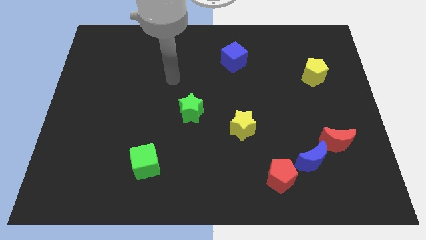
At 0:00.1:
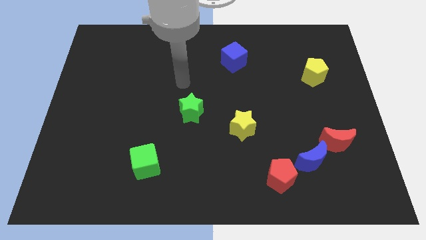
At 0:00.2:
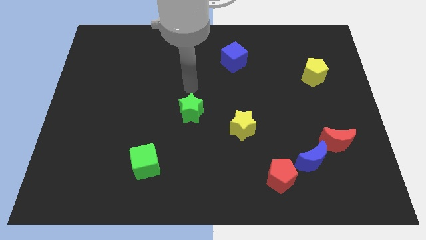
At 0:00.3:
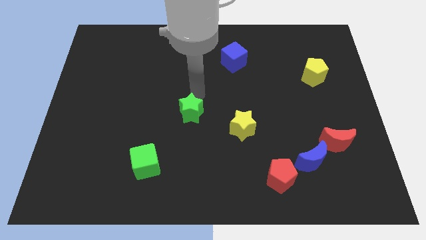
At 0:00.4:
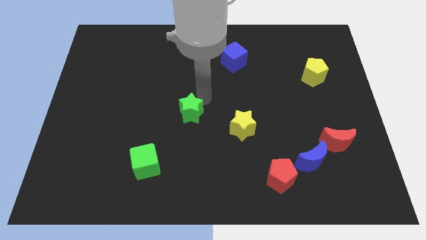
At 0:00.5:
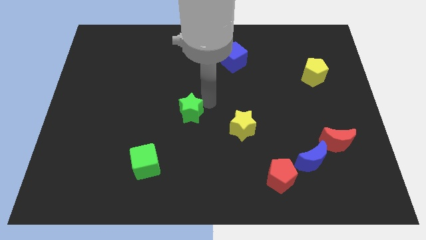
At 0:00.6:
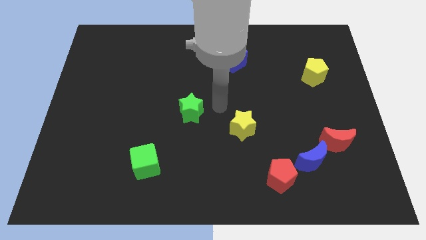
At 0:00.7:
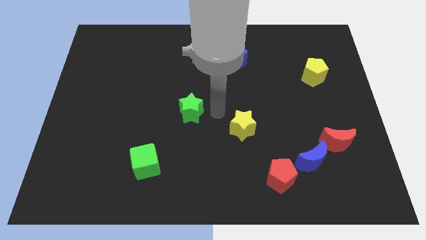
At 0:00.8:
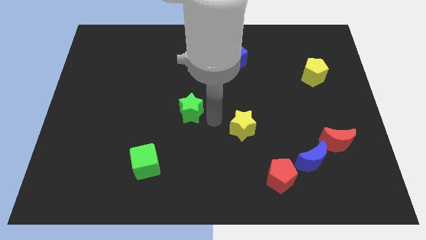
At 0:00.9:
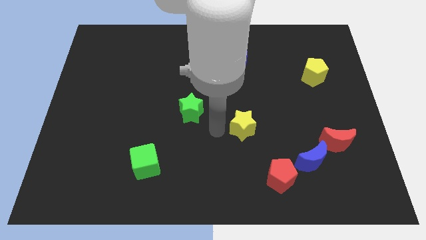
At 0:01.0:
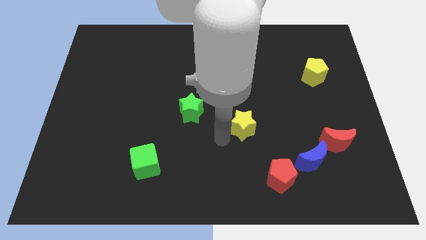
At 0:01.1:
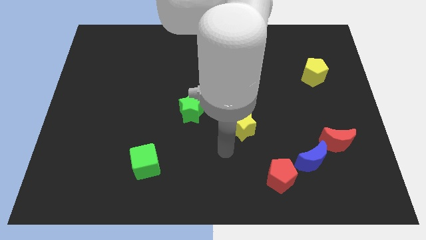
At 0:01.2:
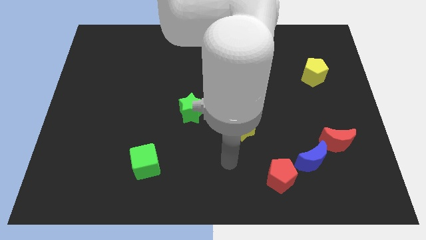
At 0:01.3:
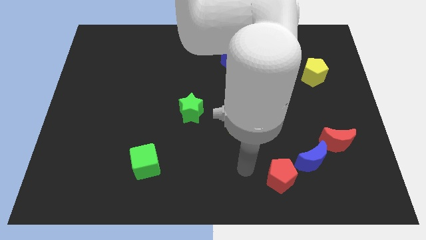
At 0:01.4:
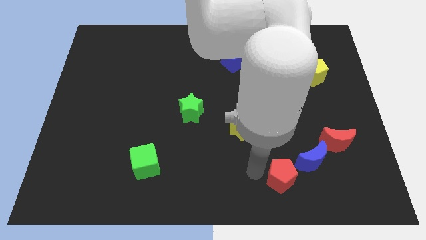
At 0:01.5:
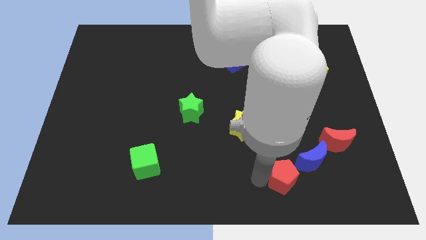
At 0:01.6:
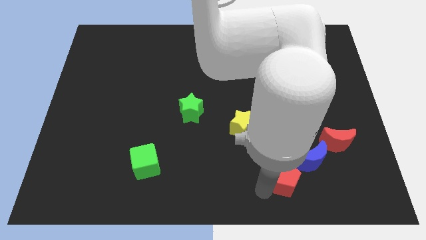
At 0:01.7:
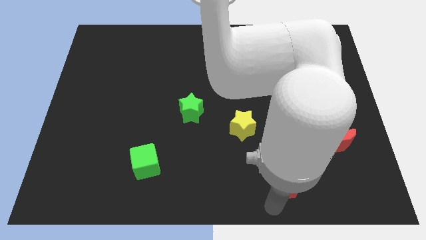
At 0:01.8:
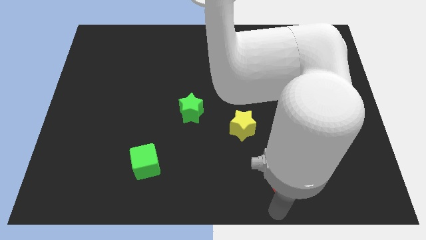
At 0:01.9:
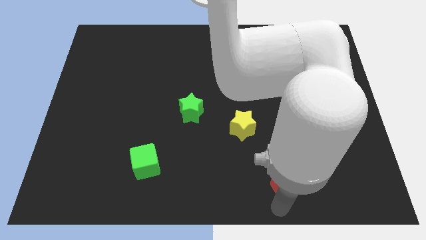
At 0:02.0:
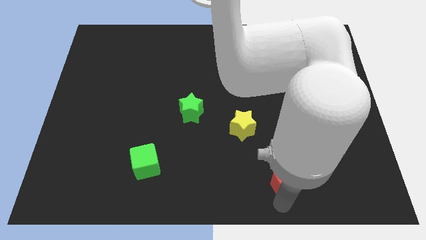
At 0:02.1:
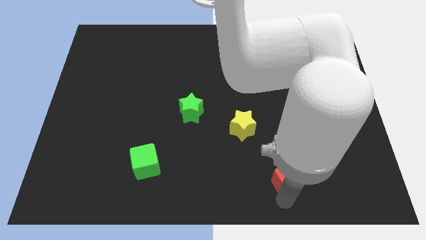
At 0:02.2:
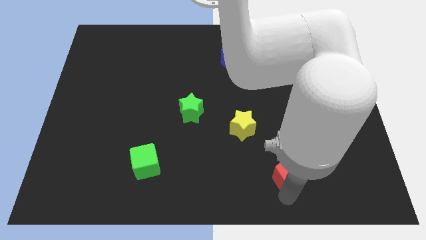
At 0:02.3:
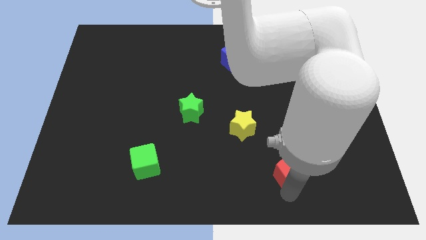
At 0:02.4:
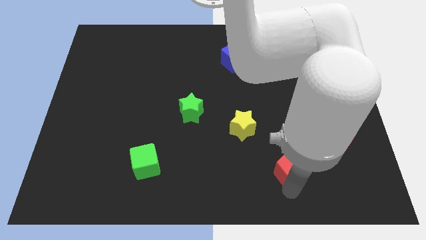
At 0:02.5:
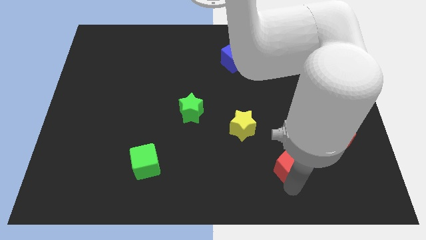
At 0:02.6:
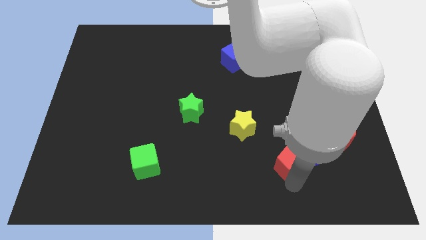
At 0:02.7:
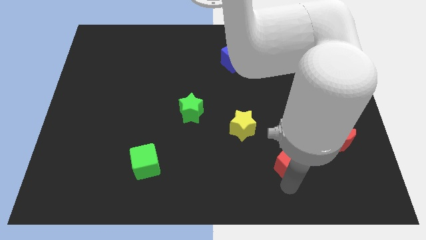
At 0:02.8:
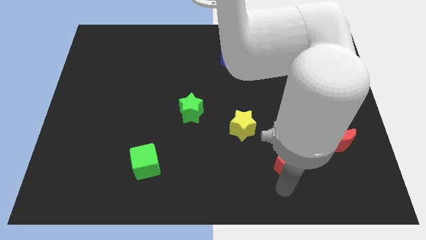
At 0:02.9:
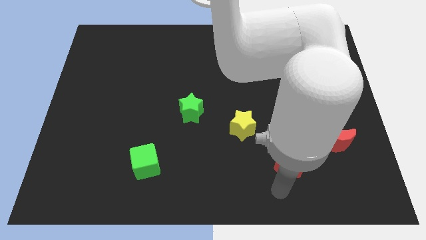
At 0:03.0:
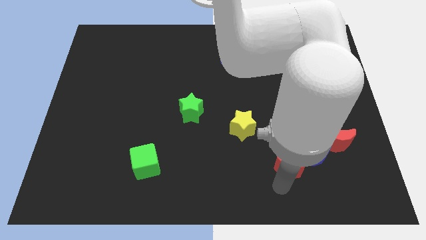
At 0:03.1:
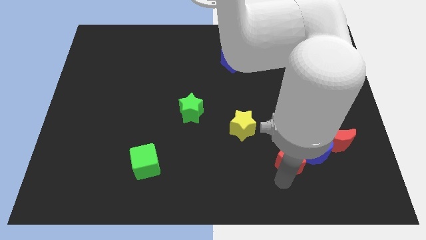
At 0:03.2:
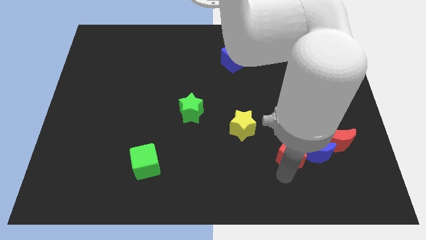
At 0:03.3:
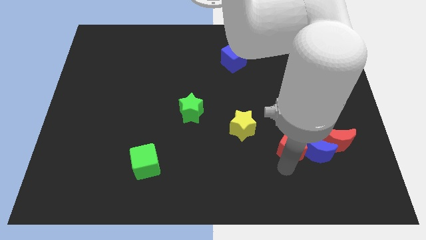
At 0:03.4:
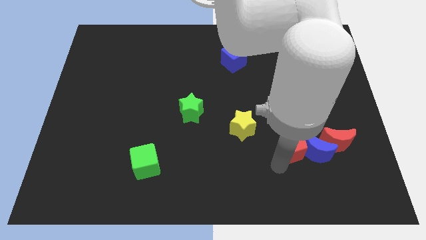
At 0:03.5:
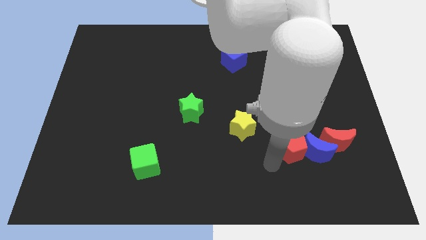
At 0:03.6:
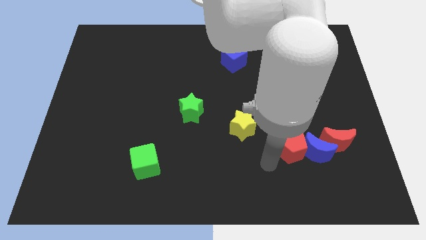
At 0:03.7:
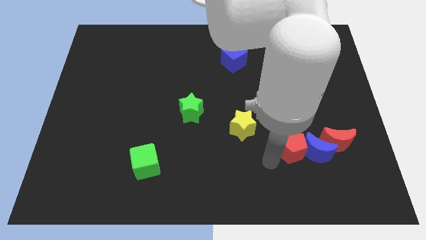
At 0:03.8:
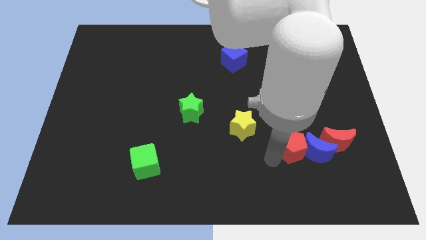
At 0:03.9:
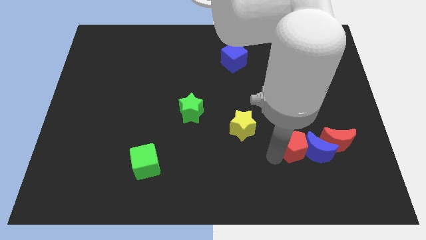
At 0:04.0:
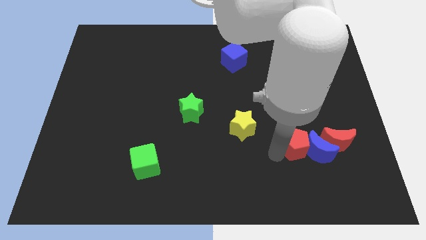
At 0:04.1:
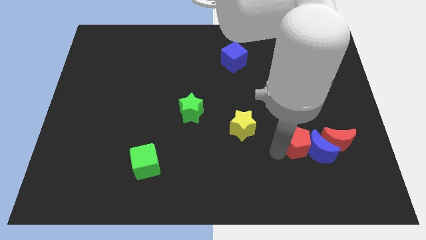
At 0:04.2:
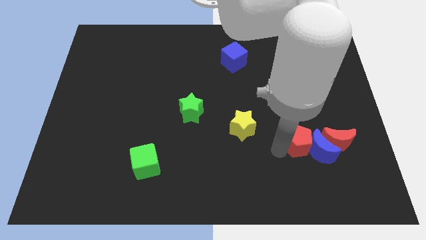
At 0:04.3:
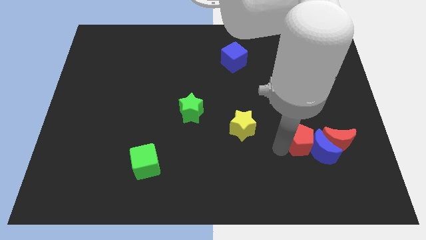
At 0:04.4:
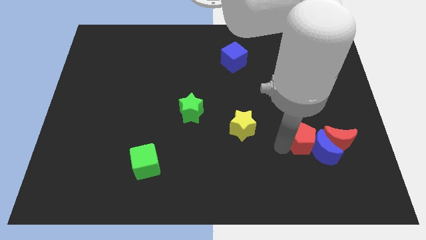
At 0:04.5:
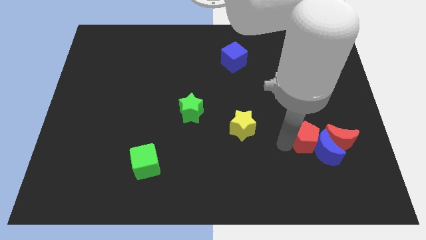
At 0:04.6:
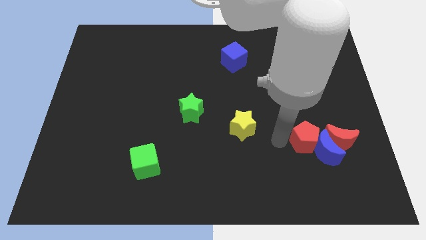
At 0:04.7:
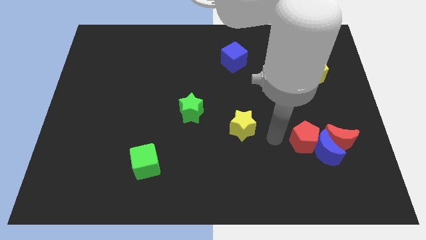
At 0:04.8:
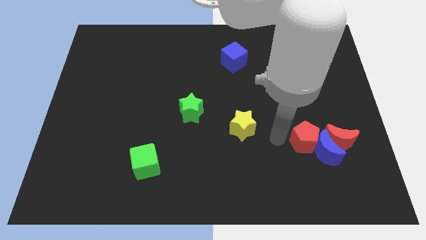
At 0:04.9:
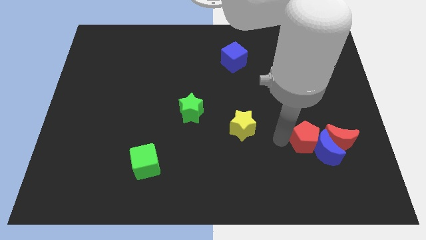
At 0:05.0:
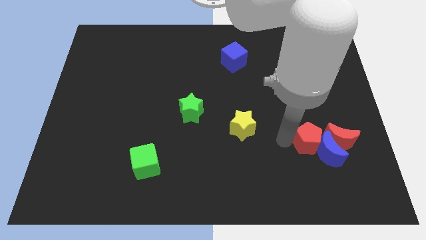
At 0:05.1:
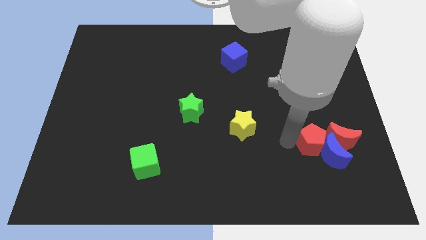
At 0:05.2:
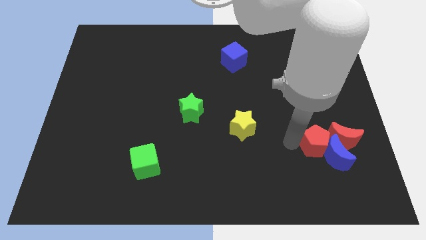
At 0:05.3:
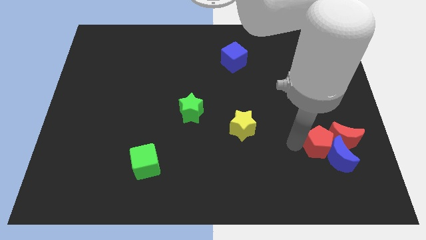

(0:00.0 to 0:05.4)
push the red pentagon towards the red moon
